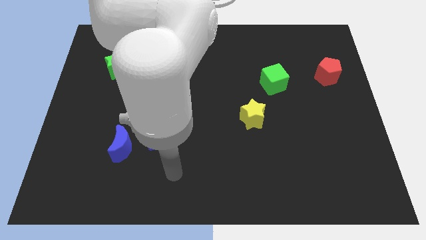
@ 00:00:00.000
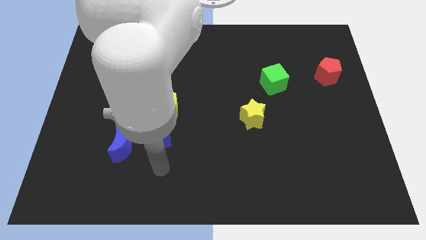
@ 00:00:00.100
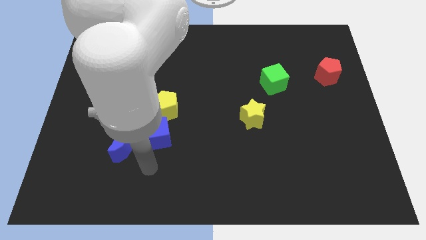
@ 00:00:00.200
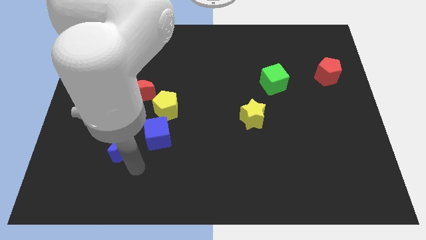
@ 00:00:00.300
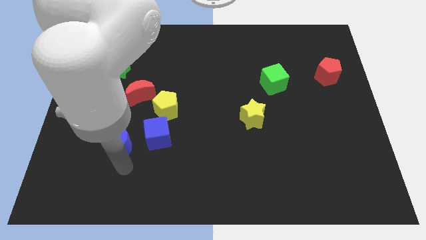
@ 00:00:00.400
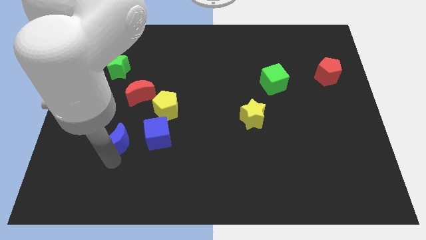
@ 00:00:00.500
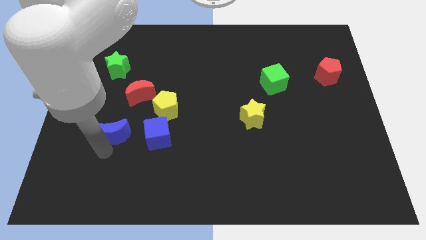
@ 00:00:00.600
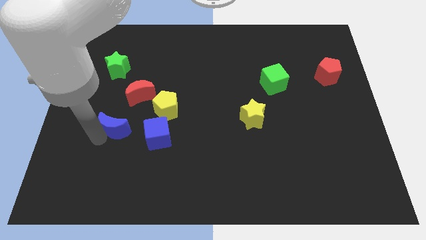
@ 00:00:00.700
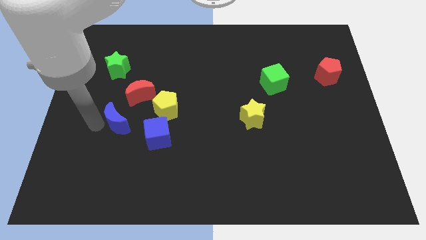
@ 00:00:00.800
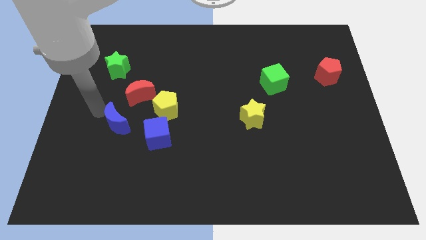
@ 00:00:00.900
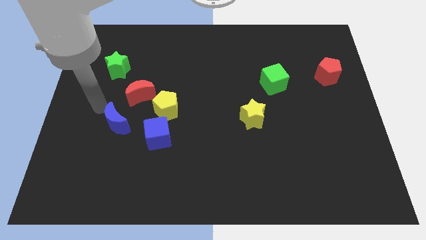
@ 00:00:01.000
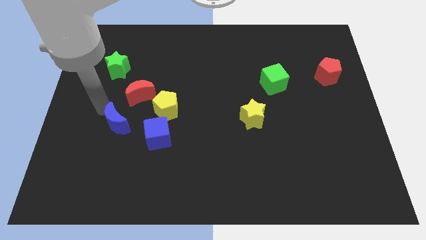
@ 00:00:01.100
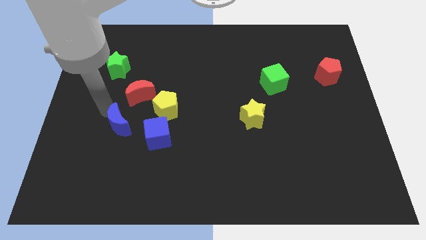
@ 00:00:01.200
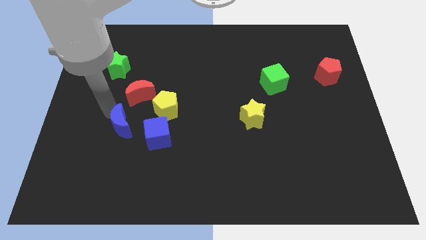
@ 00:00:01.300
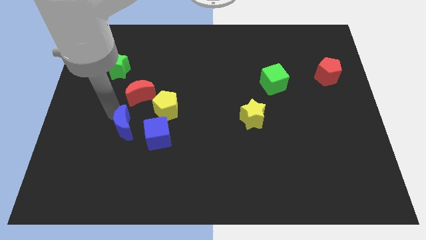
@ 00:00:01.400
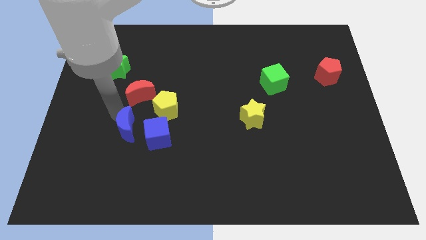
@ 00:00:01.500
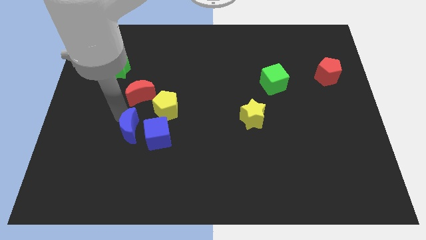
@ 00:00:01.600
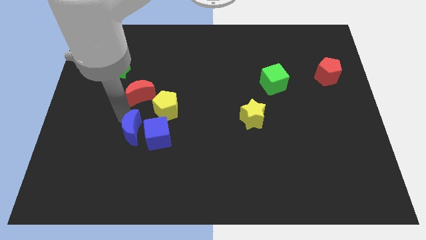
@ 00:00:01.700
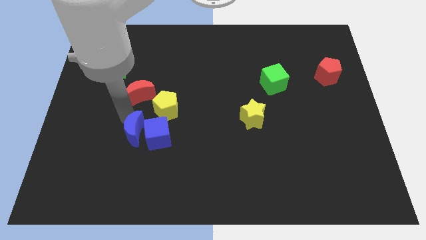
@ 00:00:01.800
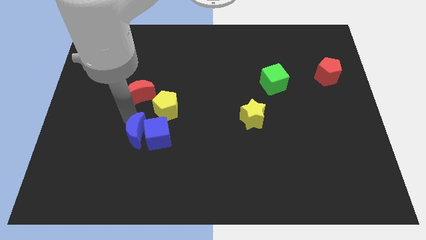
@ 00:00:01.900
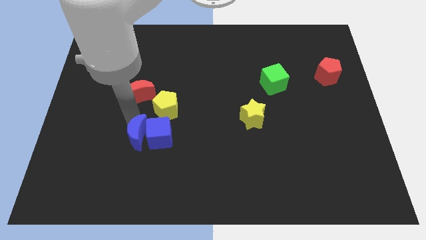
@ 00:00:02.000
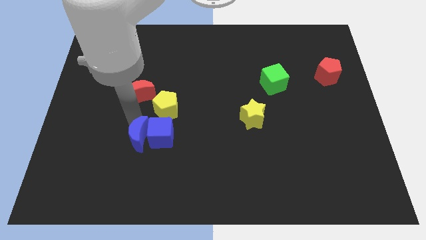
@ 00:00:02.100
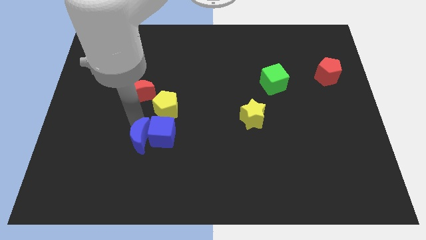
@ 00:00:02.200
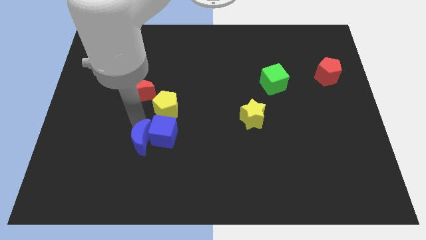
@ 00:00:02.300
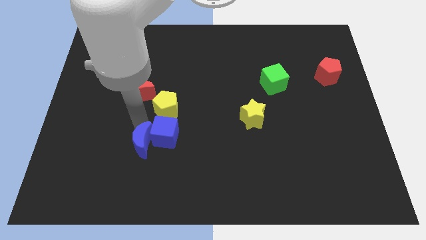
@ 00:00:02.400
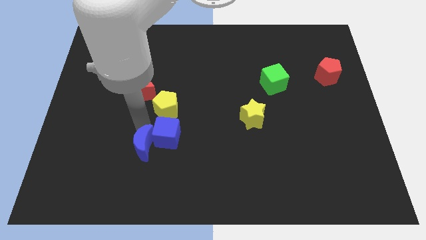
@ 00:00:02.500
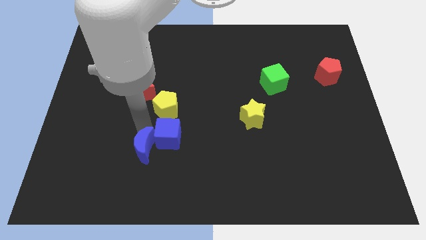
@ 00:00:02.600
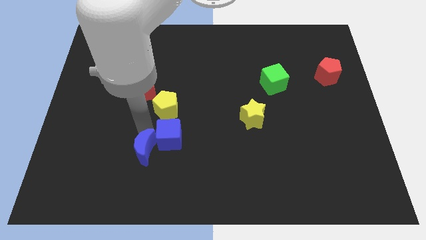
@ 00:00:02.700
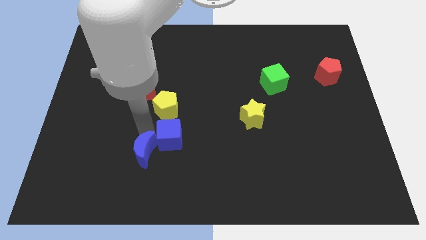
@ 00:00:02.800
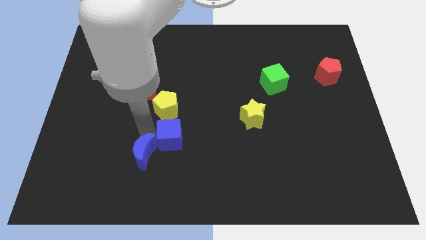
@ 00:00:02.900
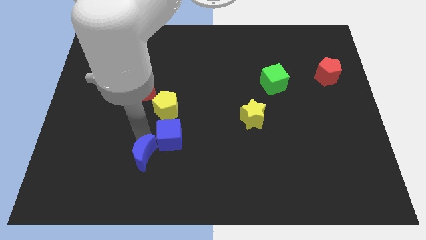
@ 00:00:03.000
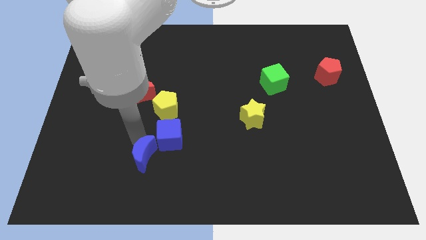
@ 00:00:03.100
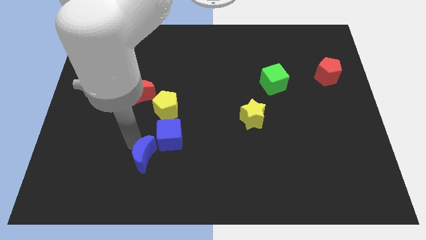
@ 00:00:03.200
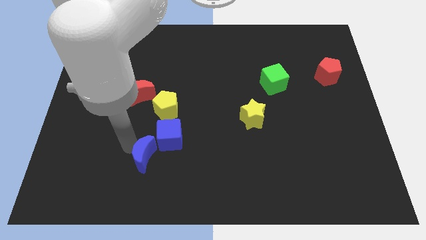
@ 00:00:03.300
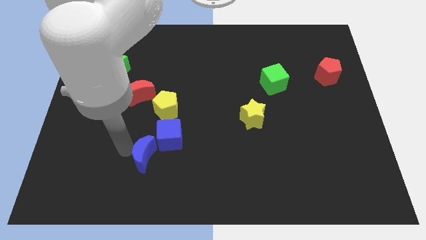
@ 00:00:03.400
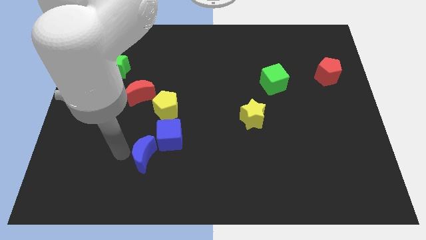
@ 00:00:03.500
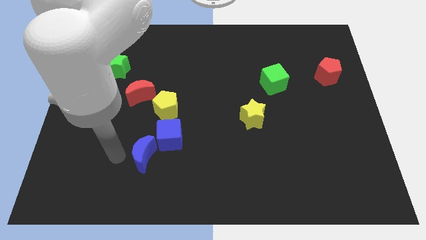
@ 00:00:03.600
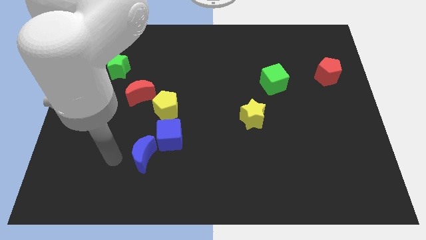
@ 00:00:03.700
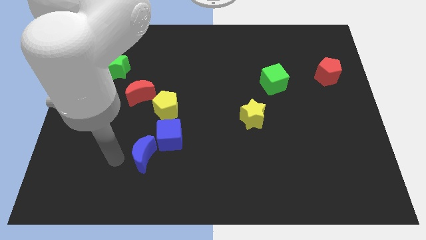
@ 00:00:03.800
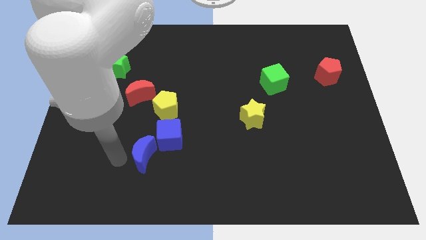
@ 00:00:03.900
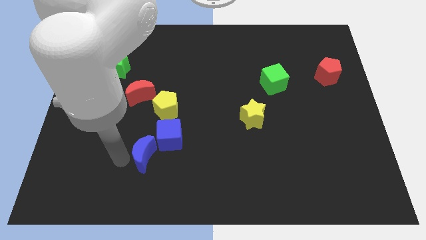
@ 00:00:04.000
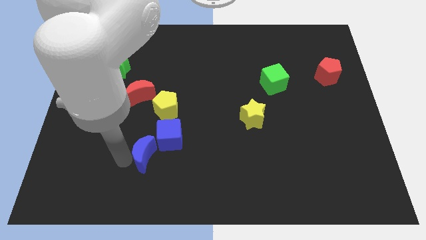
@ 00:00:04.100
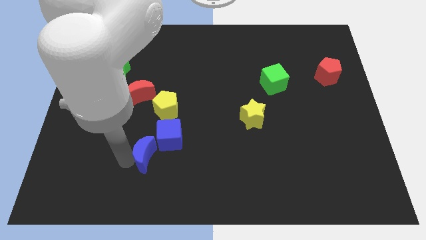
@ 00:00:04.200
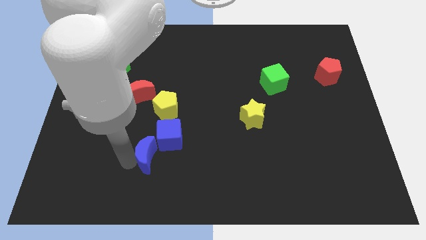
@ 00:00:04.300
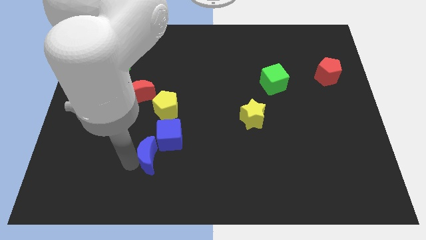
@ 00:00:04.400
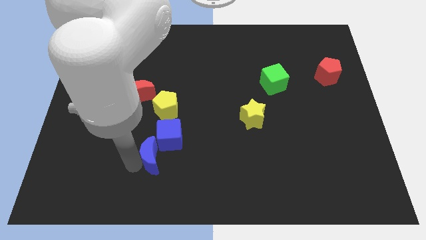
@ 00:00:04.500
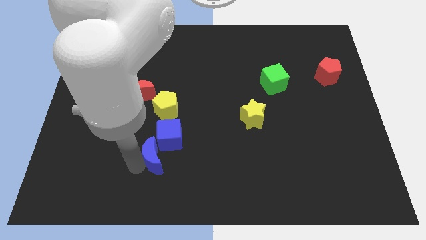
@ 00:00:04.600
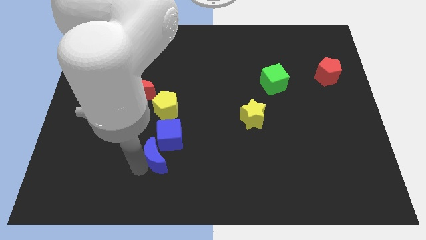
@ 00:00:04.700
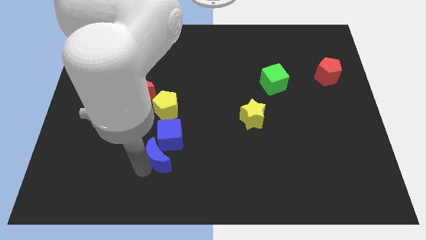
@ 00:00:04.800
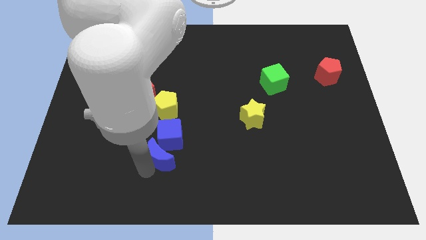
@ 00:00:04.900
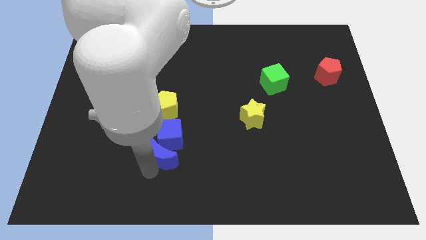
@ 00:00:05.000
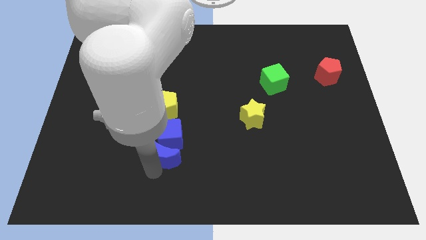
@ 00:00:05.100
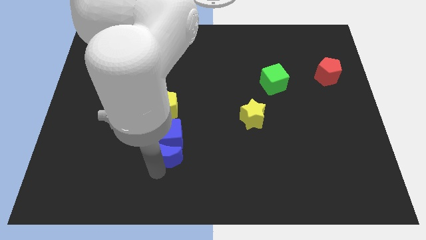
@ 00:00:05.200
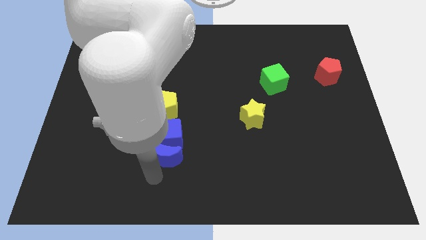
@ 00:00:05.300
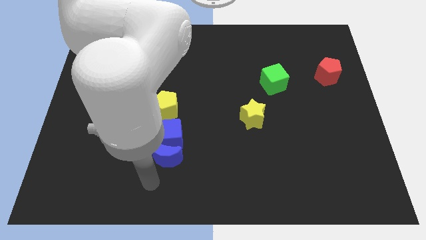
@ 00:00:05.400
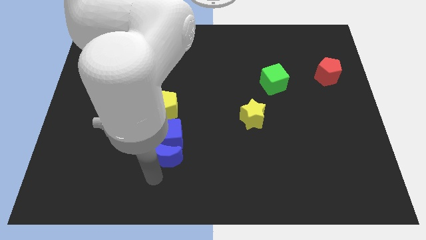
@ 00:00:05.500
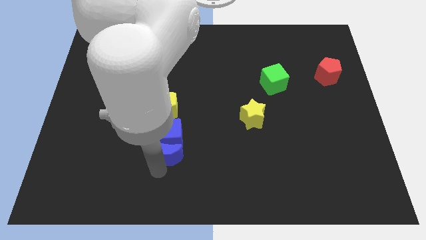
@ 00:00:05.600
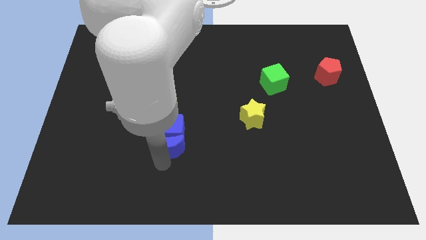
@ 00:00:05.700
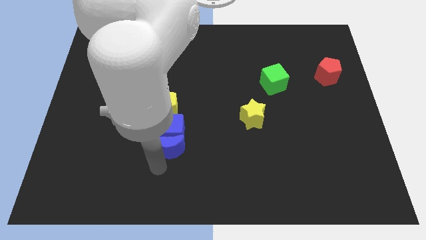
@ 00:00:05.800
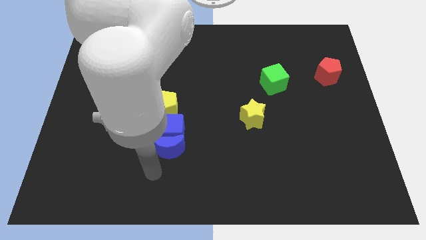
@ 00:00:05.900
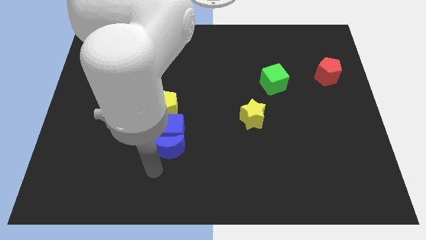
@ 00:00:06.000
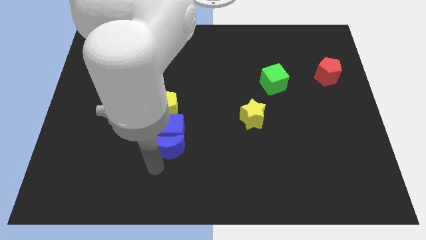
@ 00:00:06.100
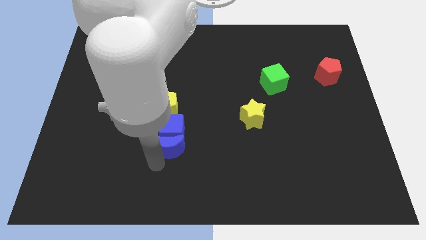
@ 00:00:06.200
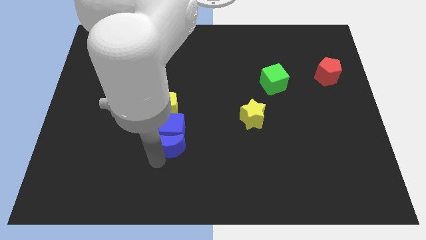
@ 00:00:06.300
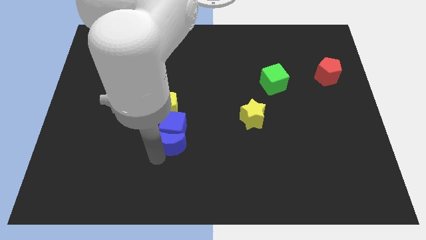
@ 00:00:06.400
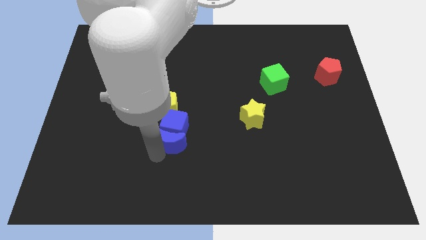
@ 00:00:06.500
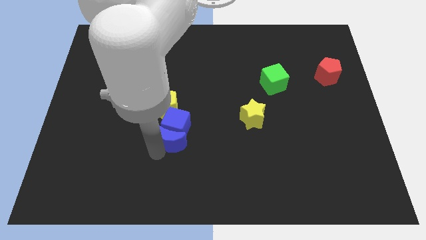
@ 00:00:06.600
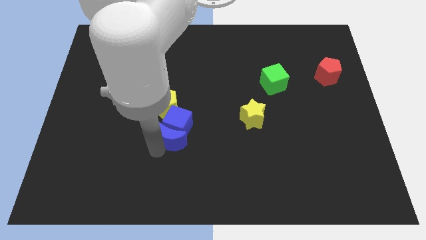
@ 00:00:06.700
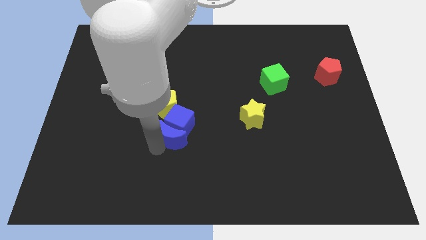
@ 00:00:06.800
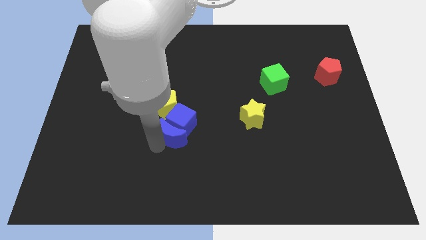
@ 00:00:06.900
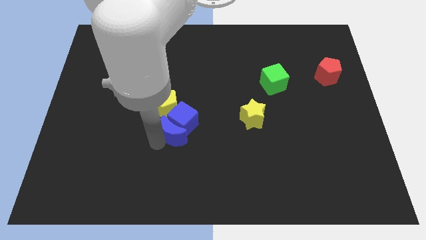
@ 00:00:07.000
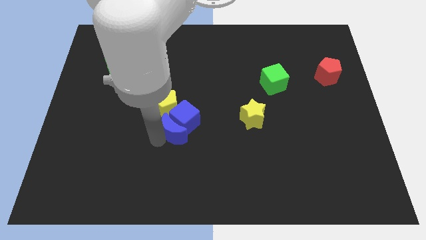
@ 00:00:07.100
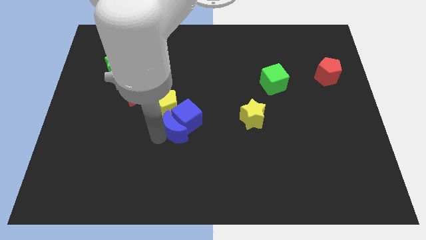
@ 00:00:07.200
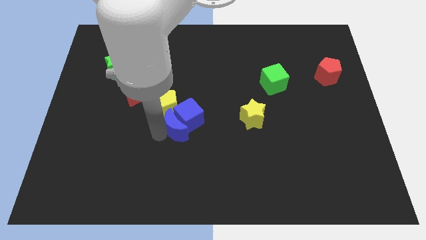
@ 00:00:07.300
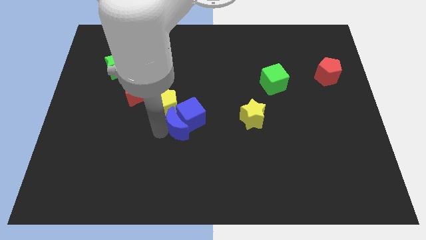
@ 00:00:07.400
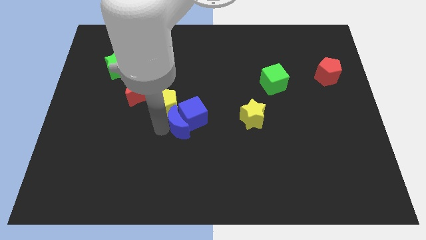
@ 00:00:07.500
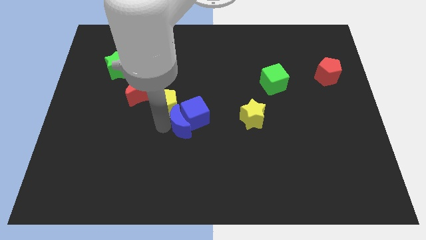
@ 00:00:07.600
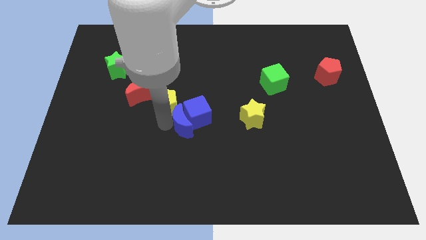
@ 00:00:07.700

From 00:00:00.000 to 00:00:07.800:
push the blue moon to the left of the yellow star
